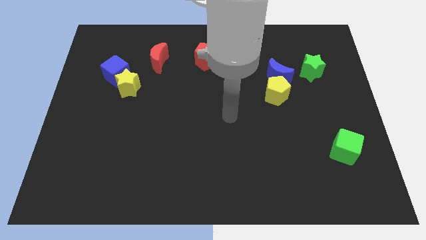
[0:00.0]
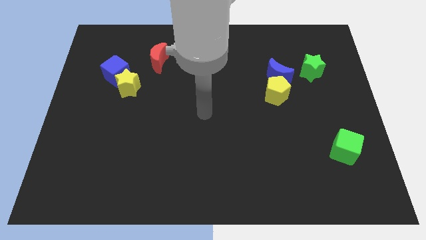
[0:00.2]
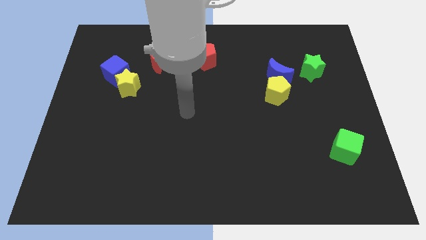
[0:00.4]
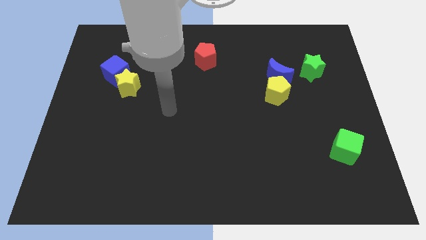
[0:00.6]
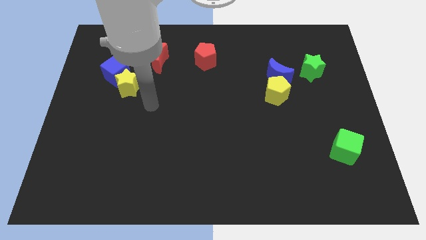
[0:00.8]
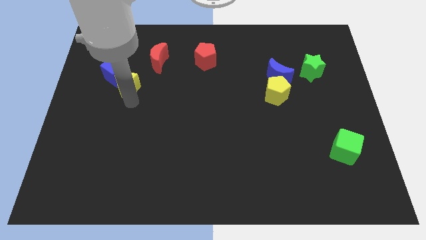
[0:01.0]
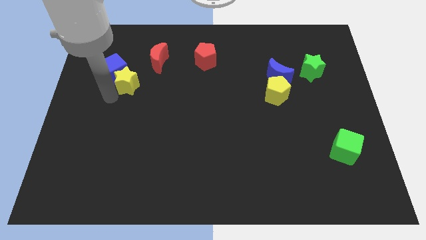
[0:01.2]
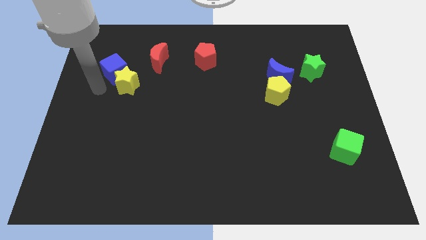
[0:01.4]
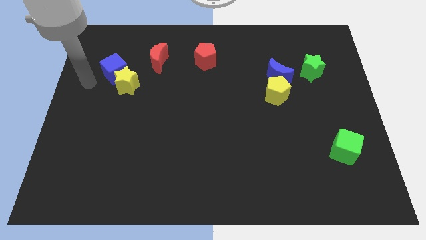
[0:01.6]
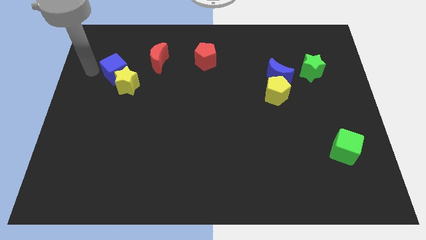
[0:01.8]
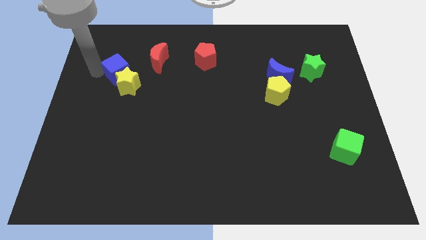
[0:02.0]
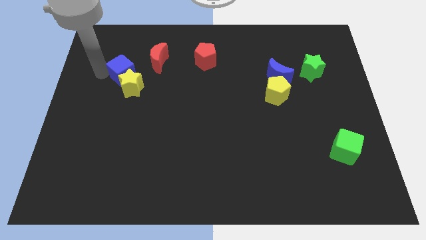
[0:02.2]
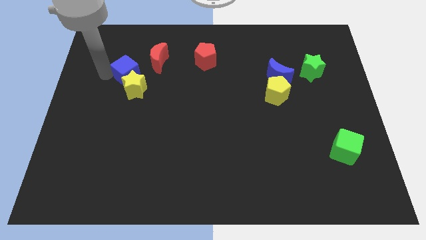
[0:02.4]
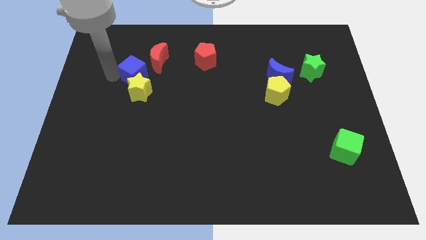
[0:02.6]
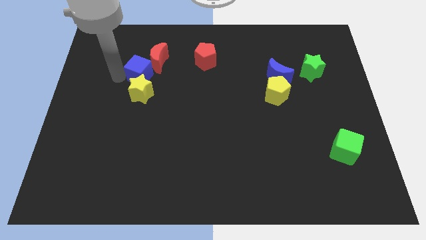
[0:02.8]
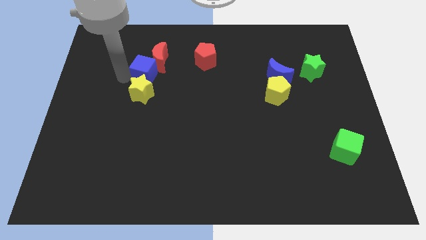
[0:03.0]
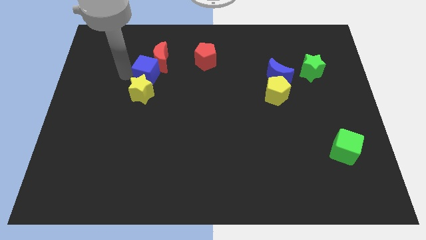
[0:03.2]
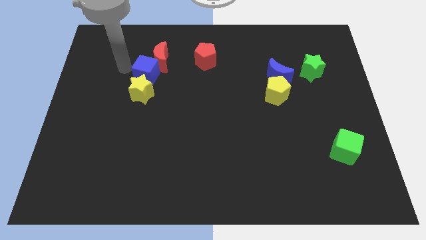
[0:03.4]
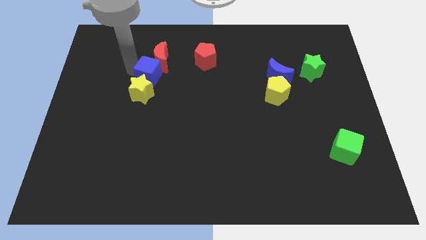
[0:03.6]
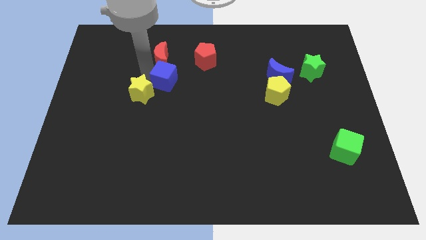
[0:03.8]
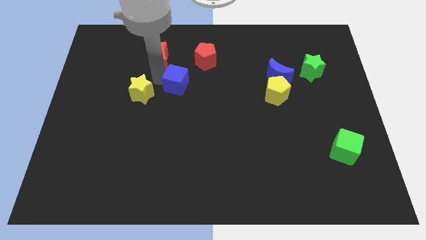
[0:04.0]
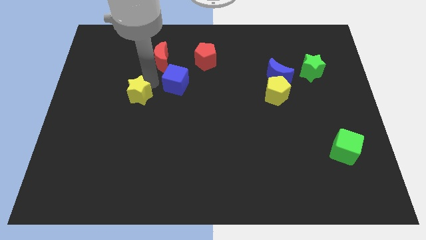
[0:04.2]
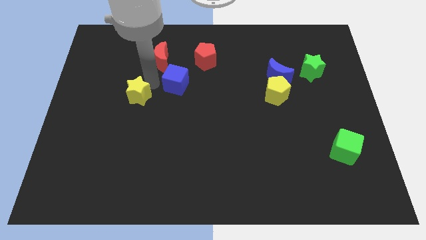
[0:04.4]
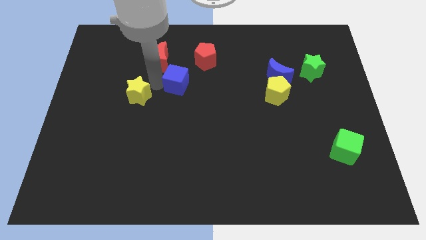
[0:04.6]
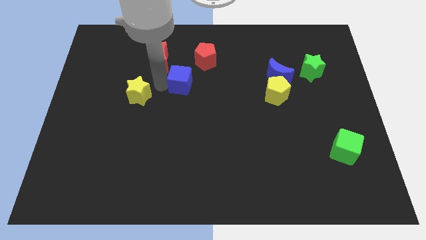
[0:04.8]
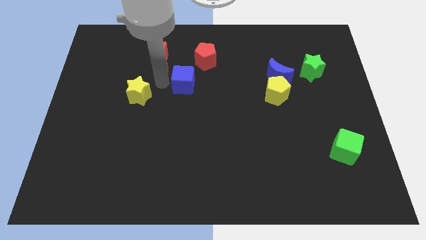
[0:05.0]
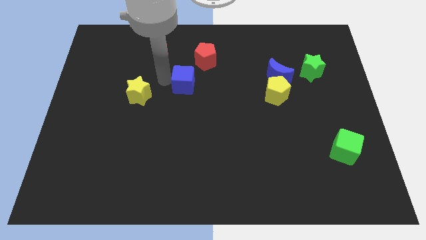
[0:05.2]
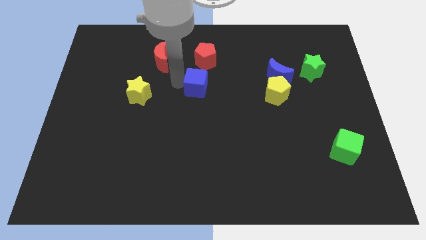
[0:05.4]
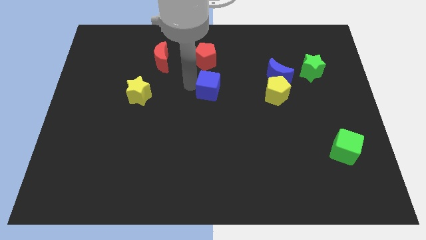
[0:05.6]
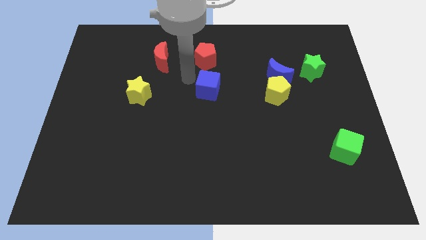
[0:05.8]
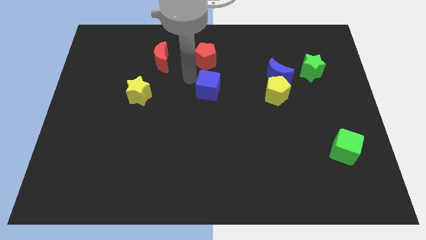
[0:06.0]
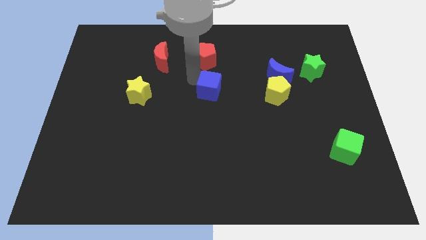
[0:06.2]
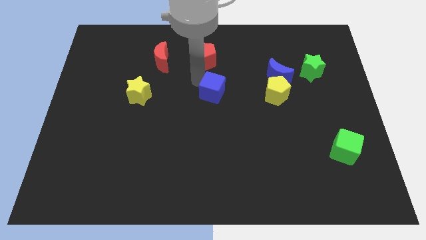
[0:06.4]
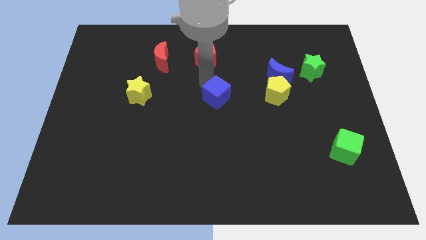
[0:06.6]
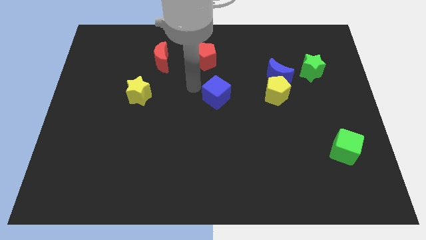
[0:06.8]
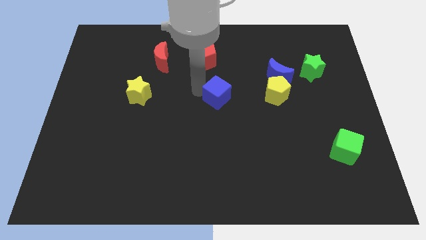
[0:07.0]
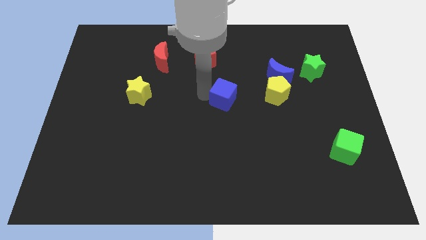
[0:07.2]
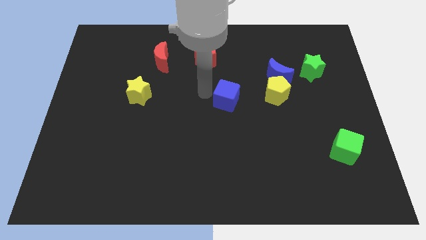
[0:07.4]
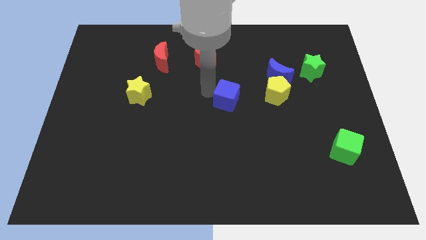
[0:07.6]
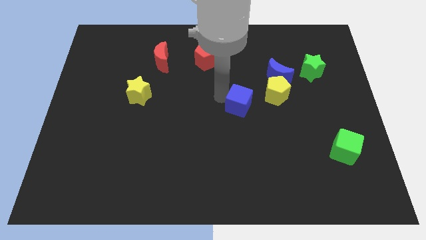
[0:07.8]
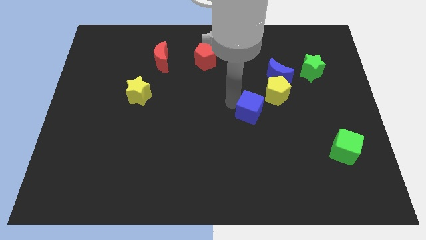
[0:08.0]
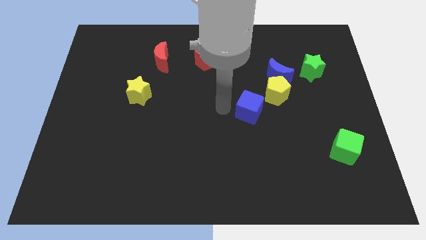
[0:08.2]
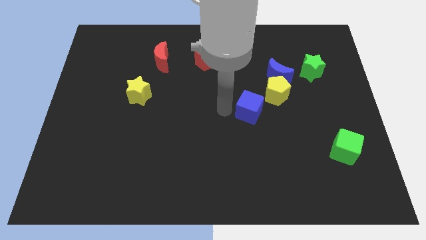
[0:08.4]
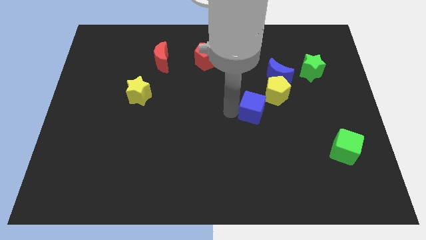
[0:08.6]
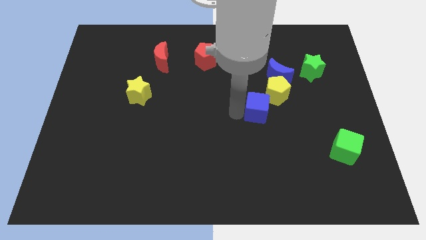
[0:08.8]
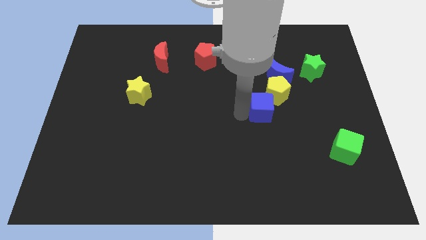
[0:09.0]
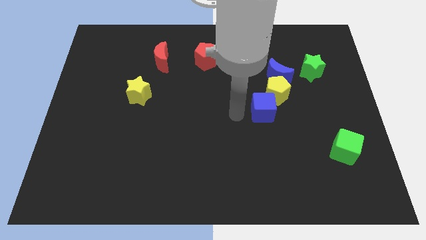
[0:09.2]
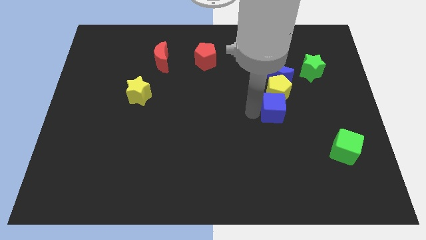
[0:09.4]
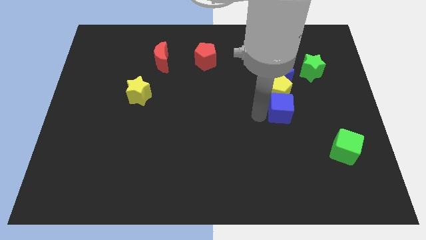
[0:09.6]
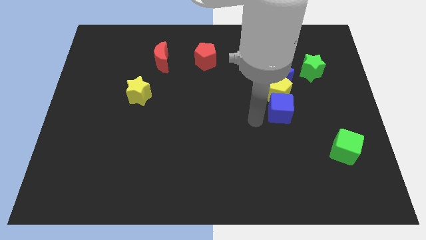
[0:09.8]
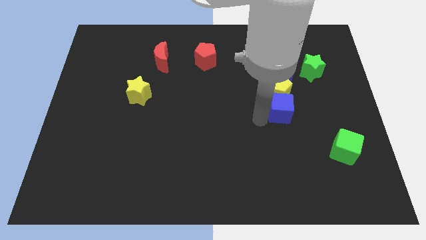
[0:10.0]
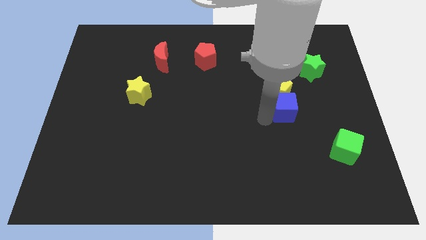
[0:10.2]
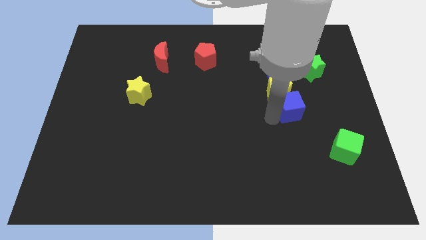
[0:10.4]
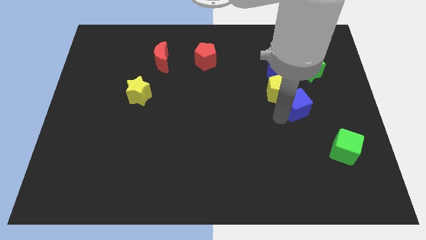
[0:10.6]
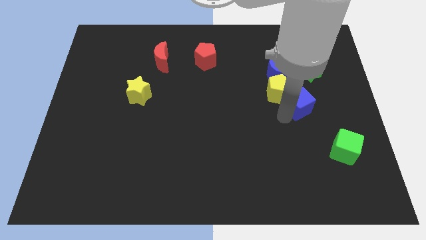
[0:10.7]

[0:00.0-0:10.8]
put the blue cube to the right of the yellow pentagon

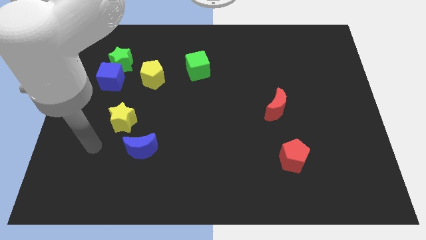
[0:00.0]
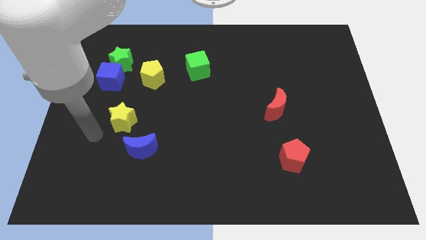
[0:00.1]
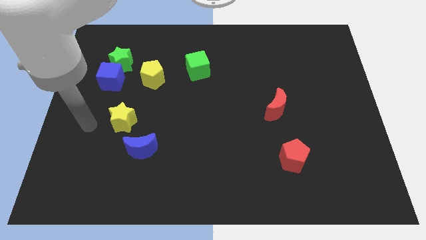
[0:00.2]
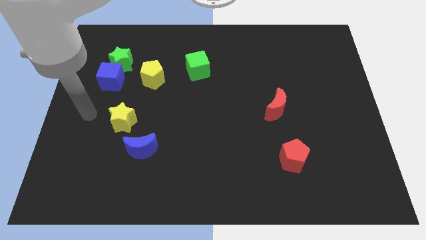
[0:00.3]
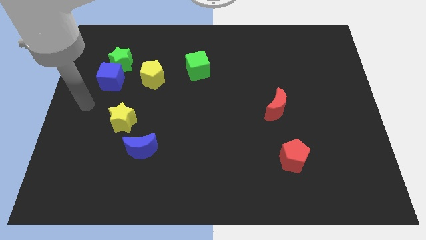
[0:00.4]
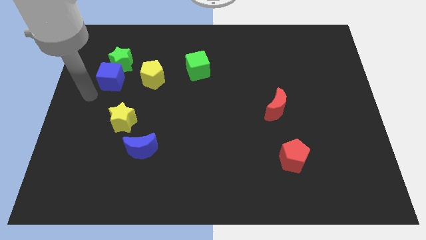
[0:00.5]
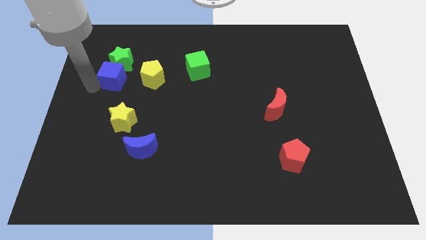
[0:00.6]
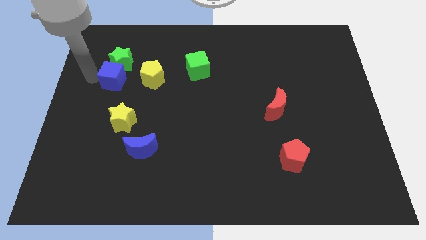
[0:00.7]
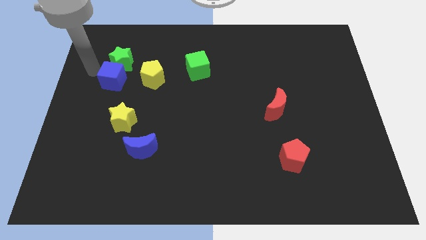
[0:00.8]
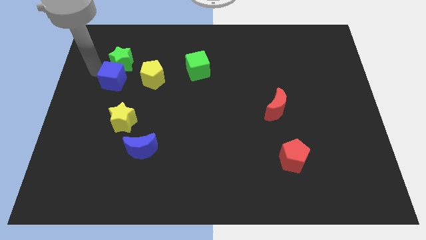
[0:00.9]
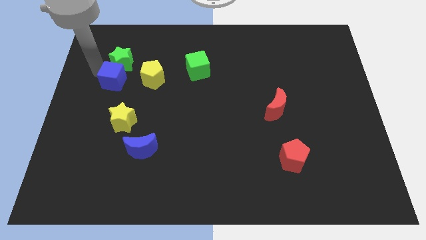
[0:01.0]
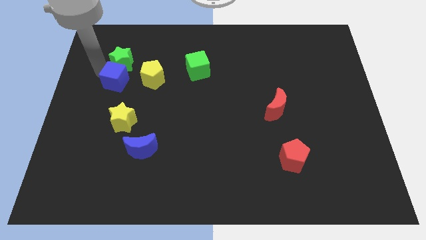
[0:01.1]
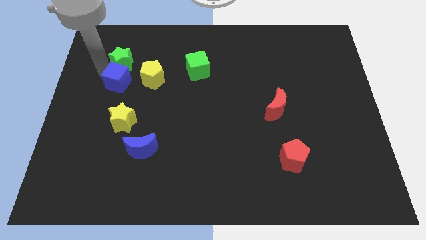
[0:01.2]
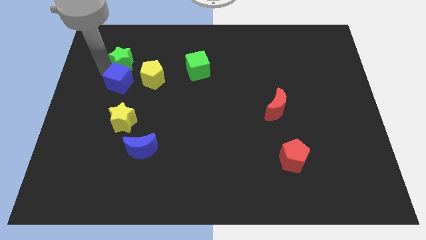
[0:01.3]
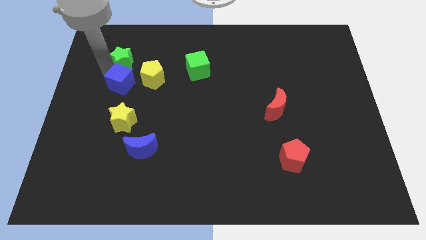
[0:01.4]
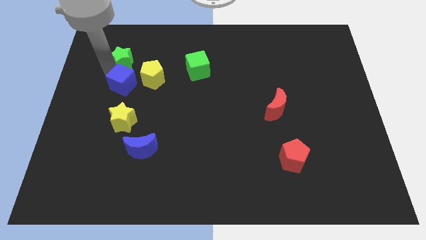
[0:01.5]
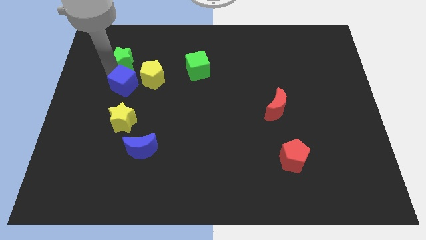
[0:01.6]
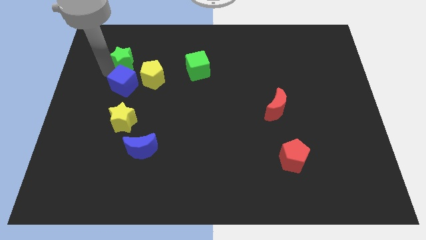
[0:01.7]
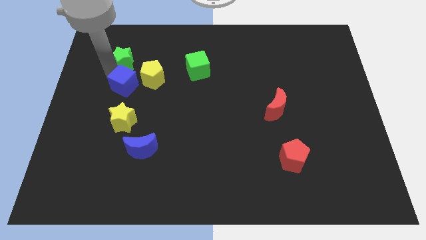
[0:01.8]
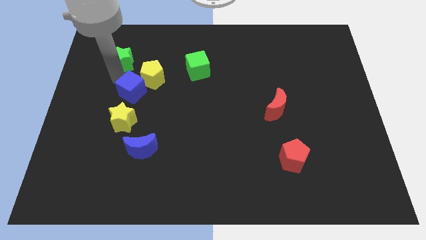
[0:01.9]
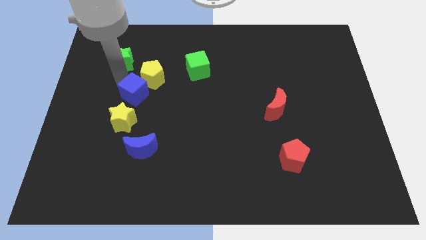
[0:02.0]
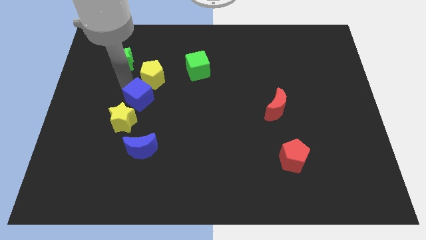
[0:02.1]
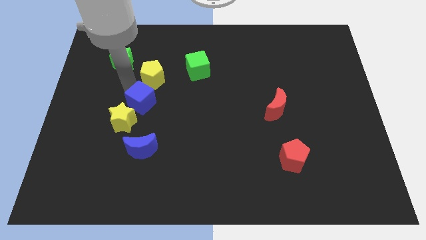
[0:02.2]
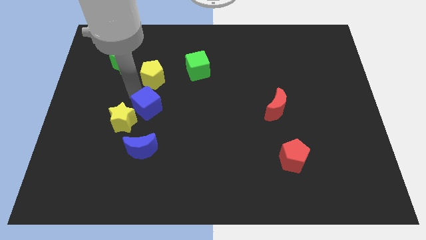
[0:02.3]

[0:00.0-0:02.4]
push the blue cube to the right of the yellow star
